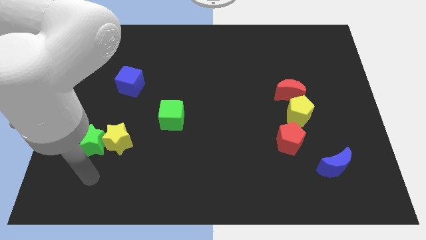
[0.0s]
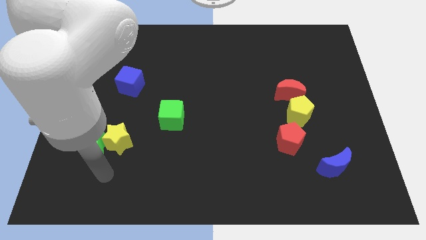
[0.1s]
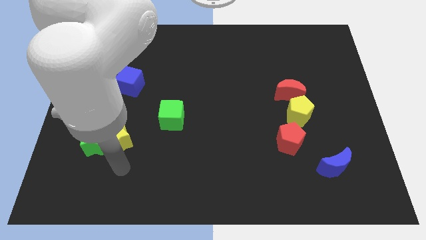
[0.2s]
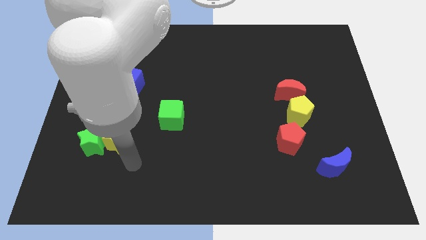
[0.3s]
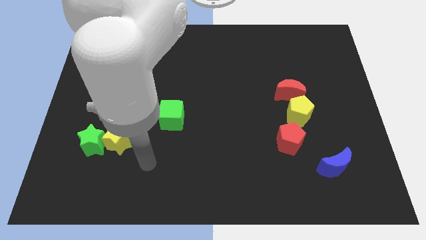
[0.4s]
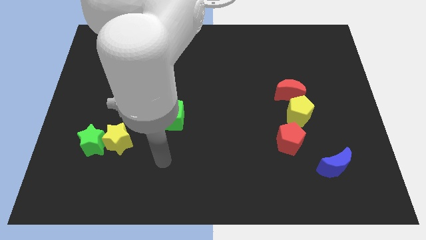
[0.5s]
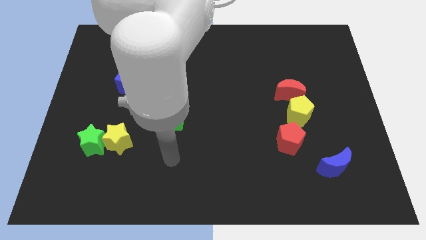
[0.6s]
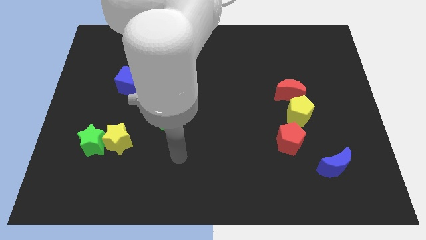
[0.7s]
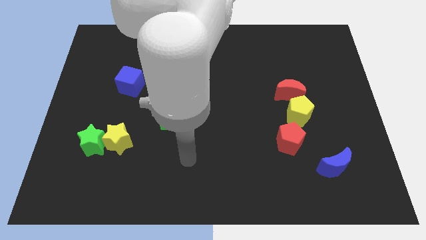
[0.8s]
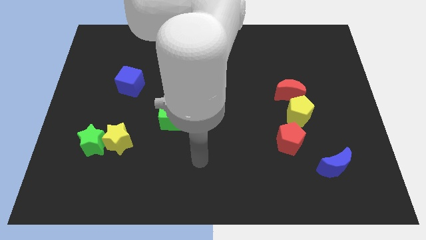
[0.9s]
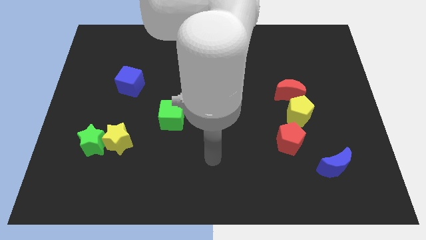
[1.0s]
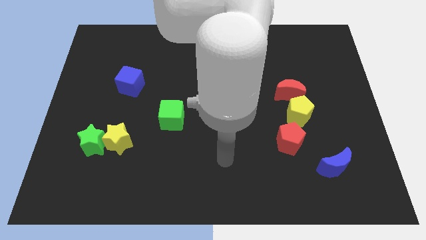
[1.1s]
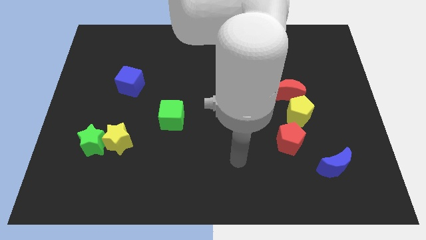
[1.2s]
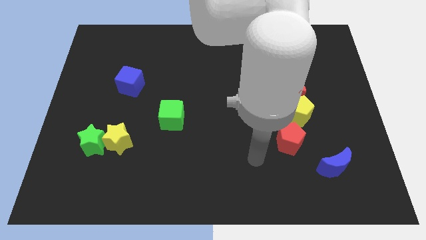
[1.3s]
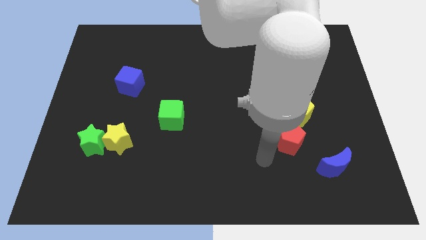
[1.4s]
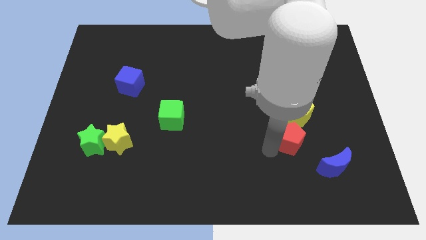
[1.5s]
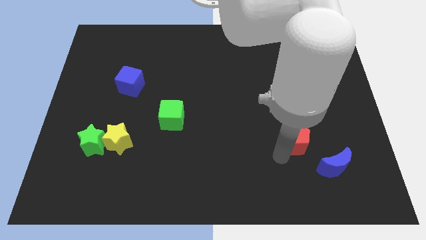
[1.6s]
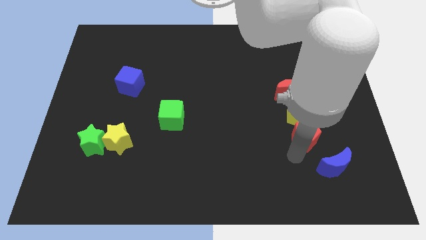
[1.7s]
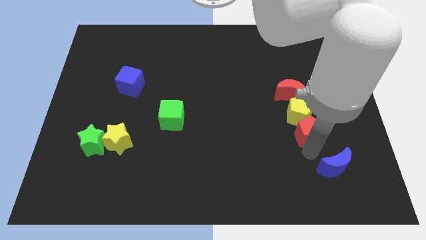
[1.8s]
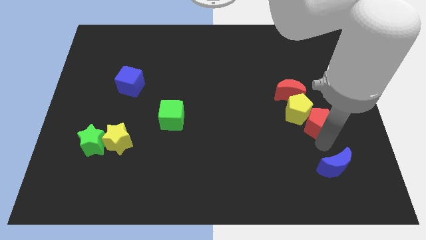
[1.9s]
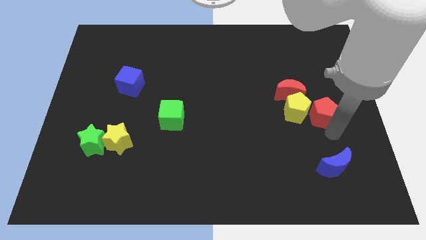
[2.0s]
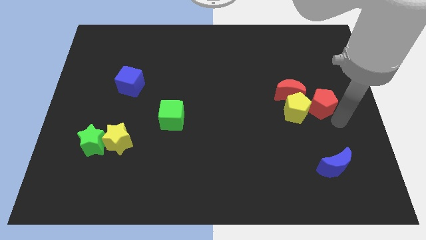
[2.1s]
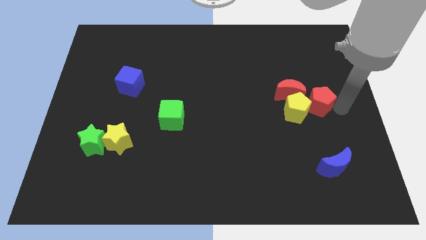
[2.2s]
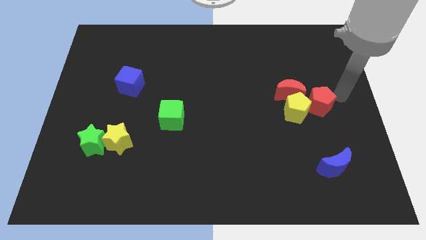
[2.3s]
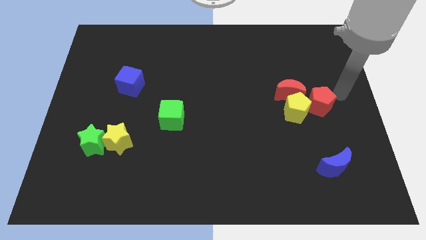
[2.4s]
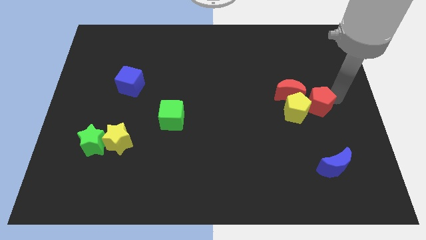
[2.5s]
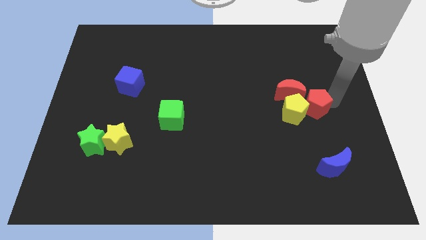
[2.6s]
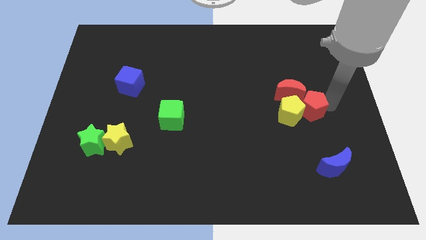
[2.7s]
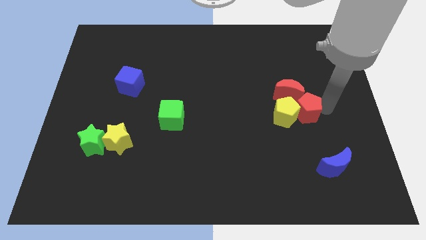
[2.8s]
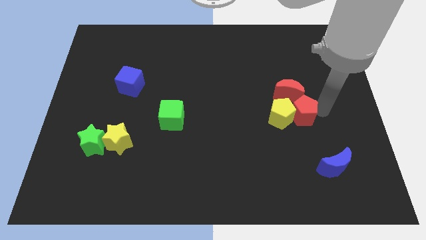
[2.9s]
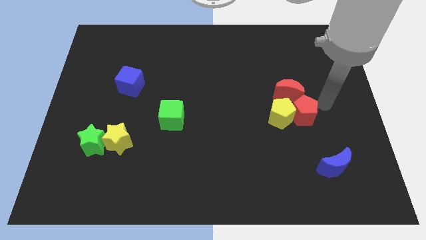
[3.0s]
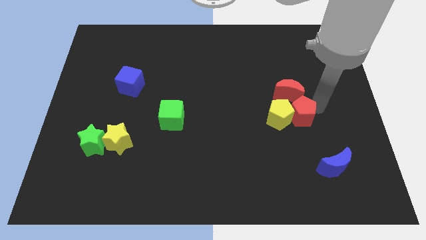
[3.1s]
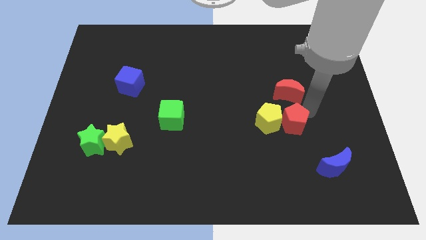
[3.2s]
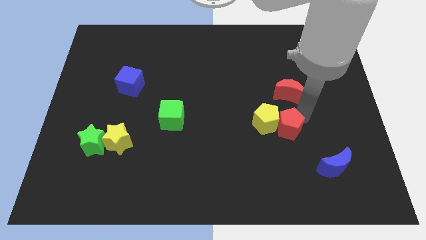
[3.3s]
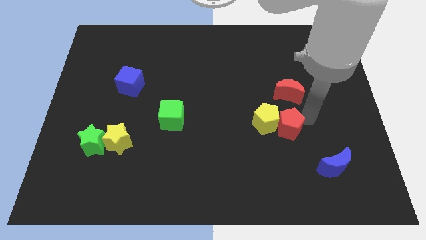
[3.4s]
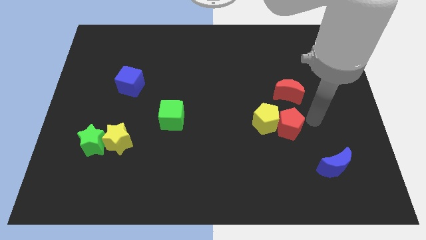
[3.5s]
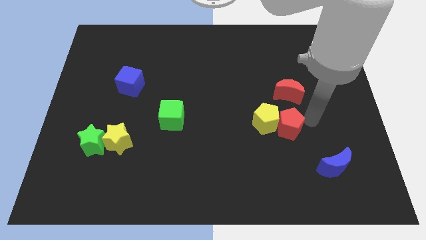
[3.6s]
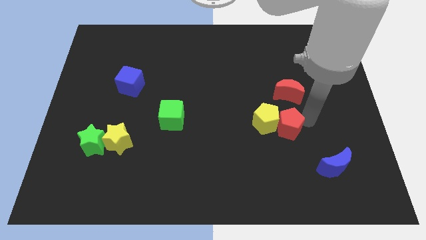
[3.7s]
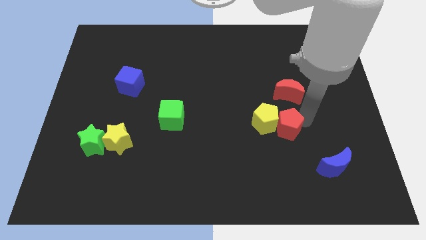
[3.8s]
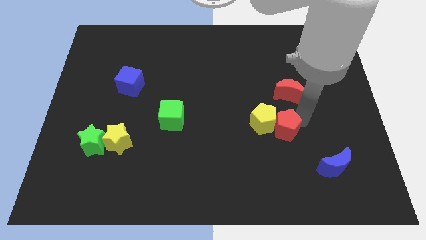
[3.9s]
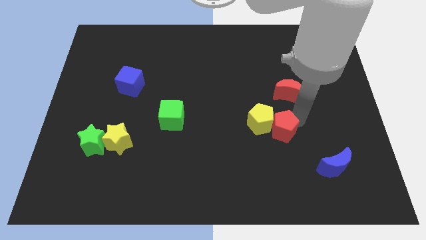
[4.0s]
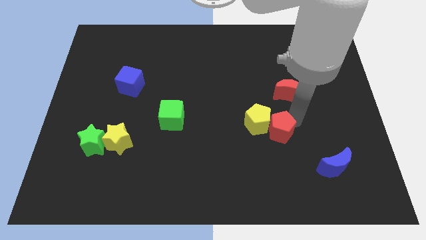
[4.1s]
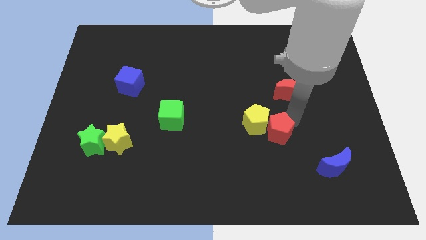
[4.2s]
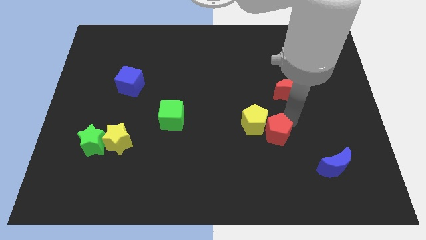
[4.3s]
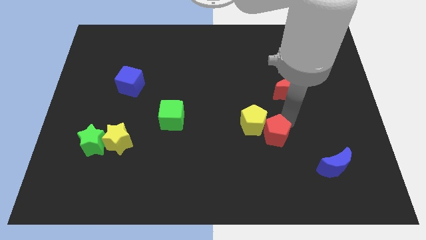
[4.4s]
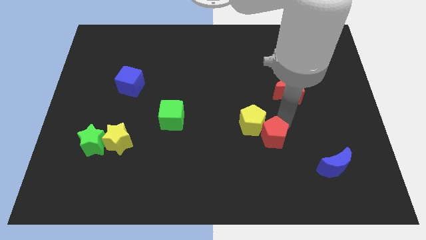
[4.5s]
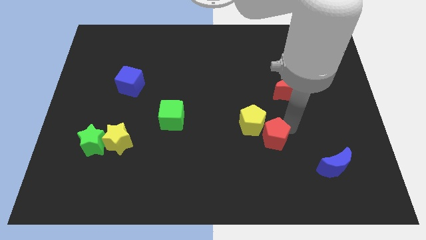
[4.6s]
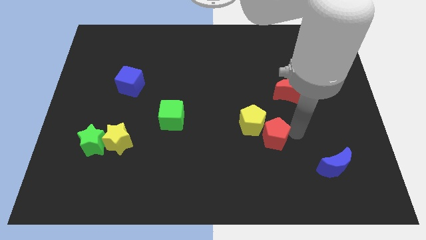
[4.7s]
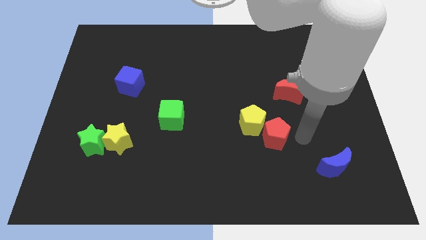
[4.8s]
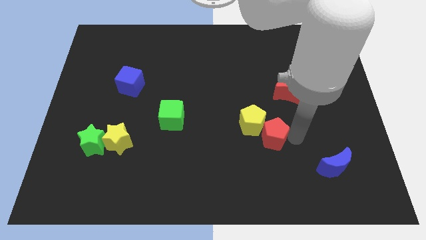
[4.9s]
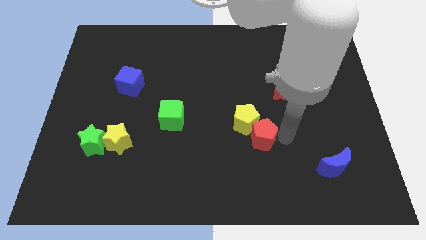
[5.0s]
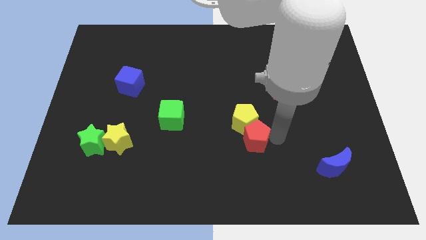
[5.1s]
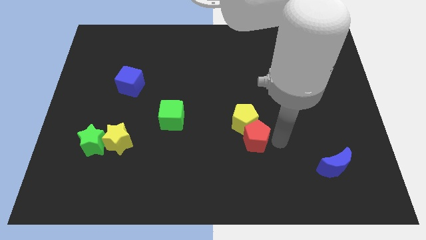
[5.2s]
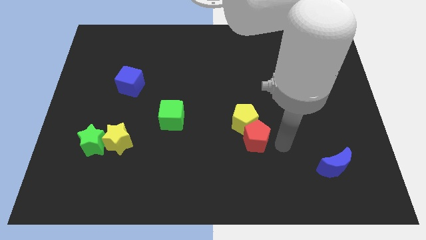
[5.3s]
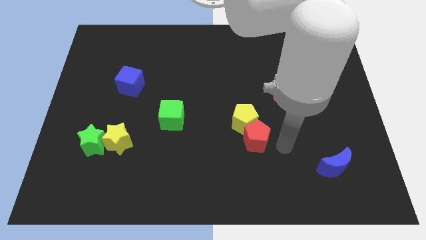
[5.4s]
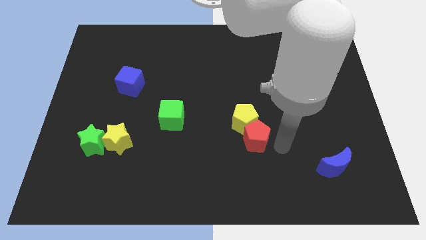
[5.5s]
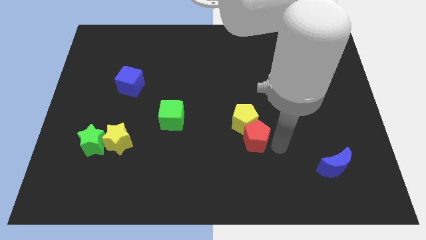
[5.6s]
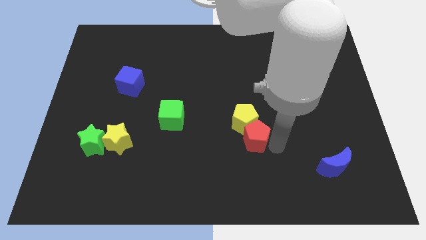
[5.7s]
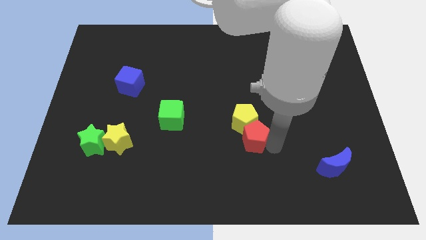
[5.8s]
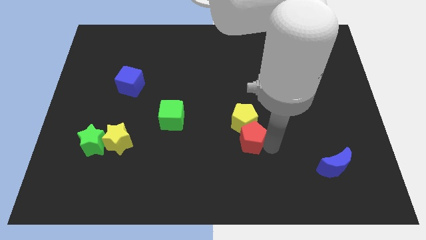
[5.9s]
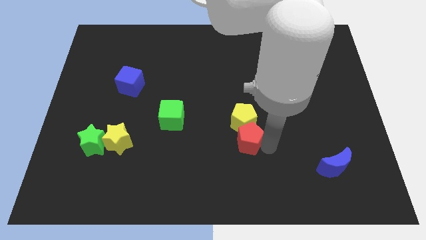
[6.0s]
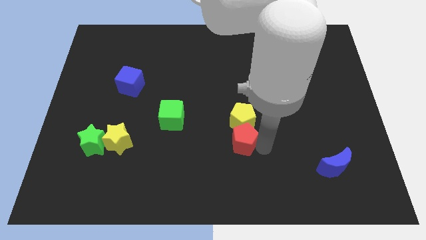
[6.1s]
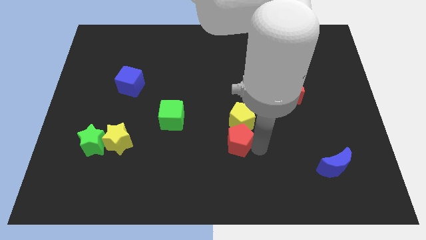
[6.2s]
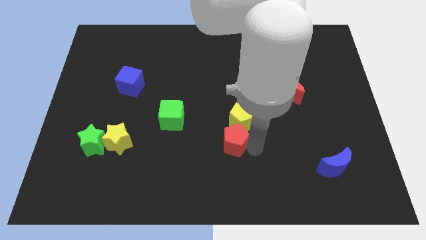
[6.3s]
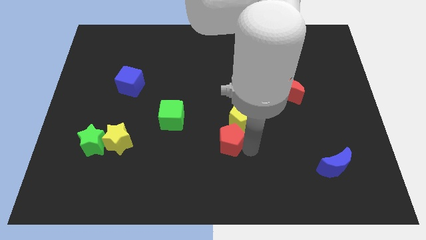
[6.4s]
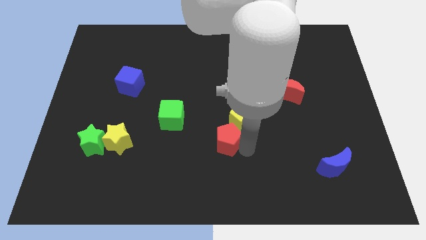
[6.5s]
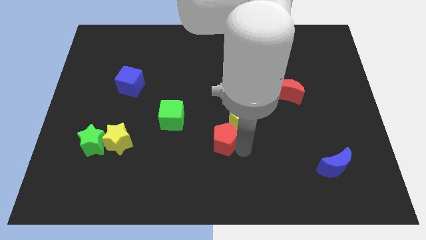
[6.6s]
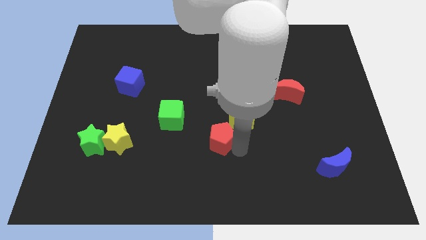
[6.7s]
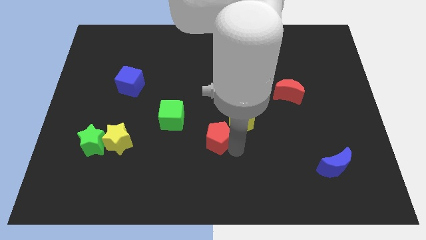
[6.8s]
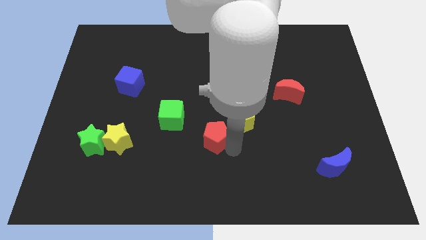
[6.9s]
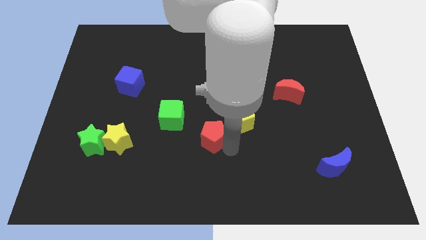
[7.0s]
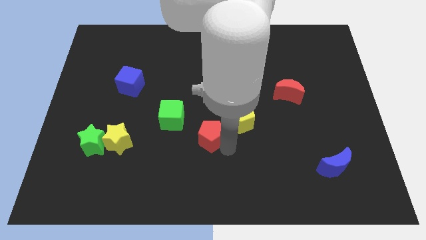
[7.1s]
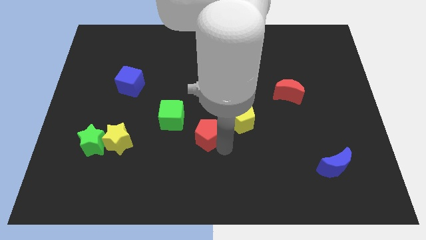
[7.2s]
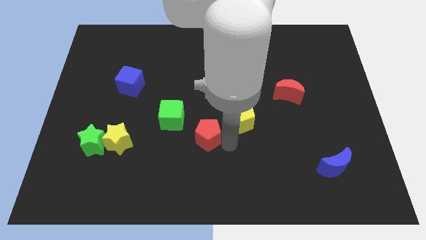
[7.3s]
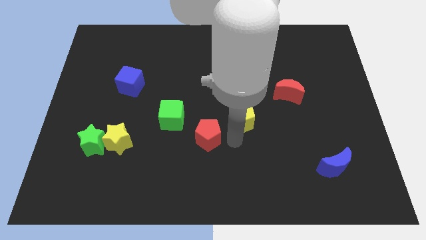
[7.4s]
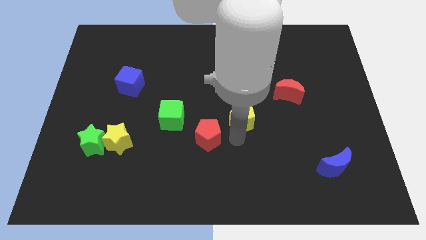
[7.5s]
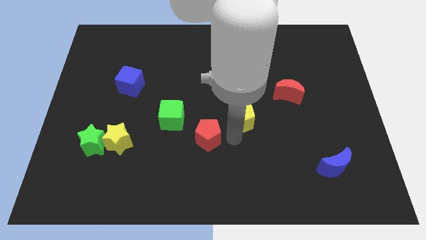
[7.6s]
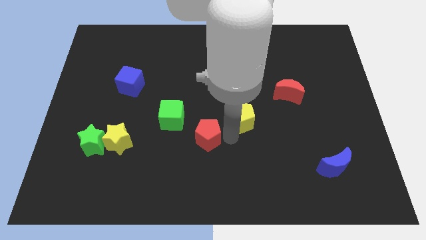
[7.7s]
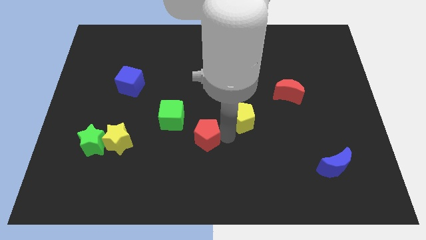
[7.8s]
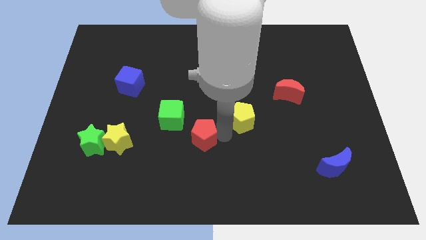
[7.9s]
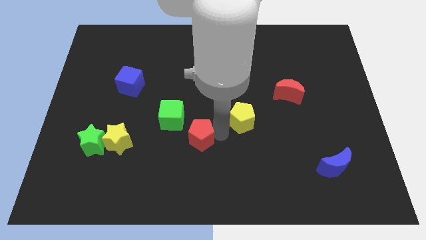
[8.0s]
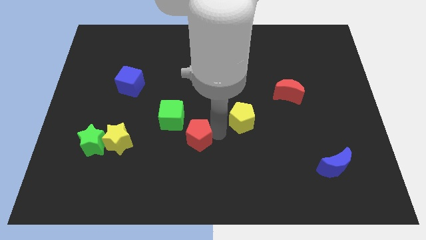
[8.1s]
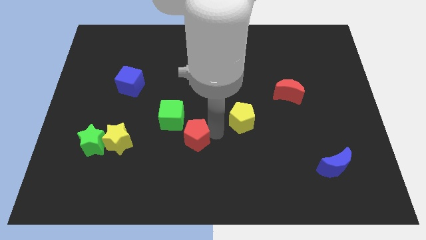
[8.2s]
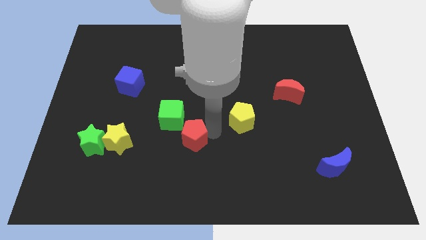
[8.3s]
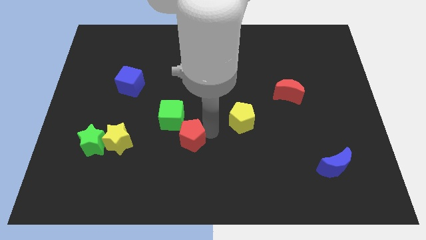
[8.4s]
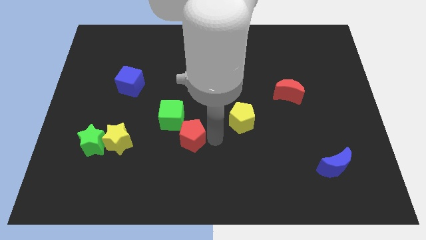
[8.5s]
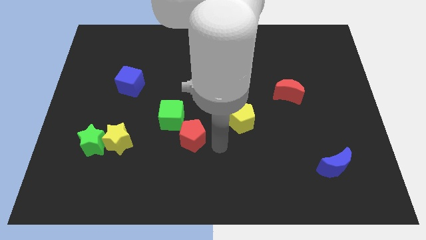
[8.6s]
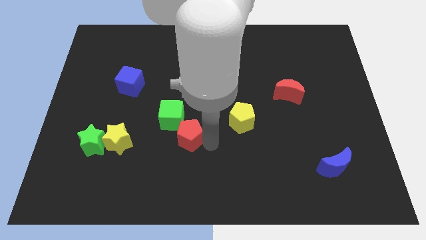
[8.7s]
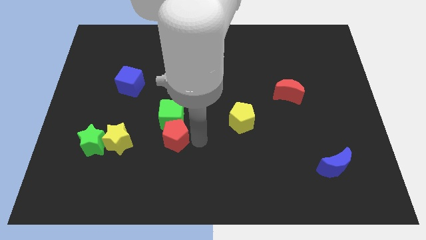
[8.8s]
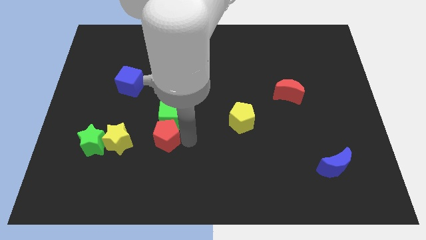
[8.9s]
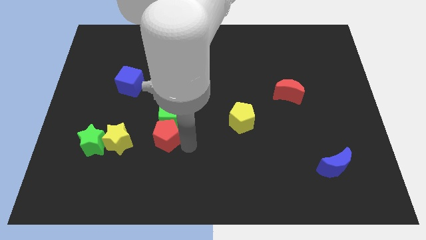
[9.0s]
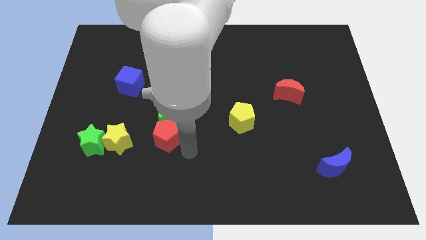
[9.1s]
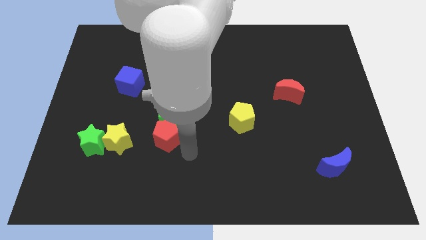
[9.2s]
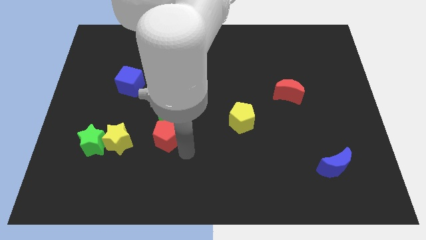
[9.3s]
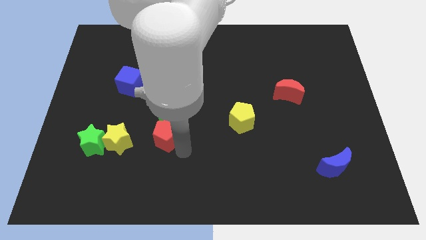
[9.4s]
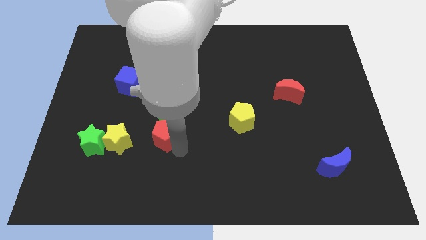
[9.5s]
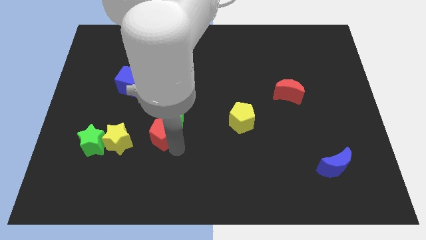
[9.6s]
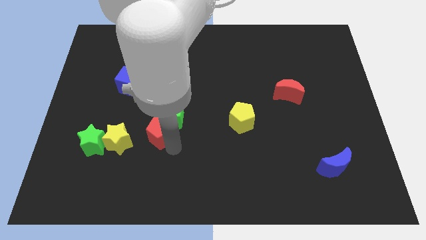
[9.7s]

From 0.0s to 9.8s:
push the red pentagon diagonally up and to the right of the yellow star
